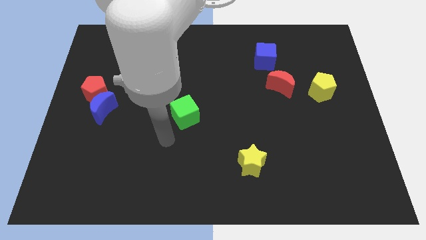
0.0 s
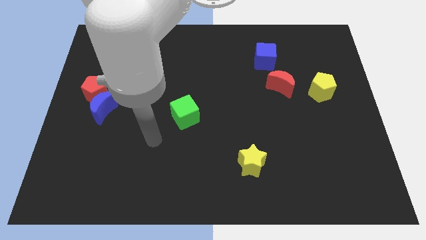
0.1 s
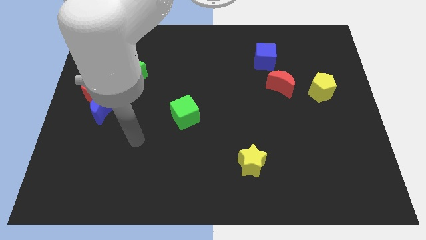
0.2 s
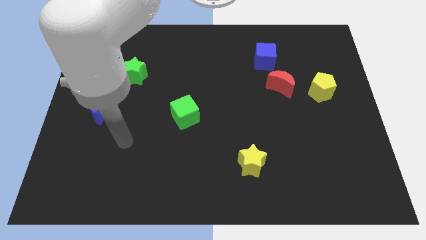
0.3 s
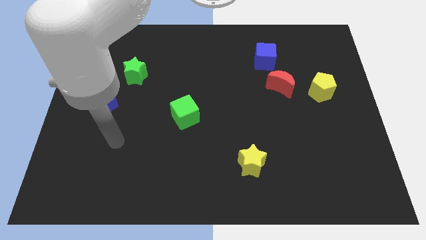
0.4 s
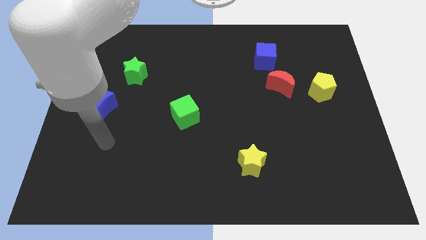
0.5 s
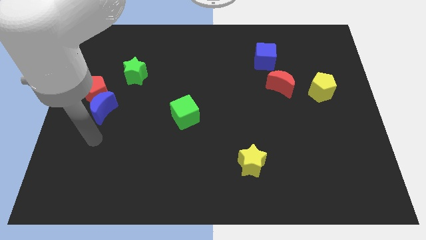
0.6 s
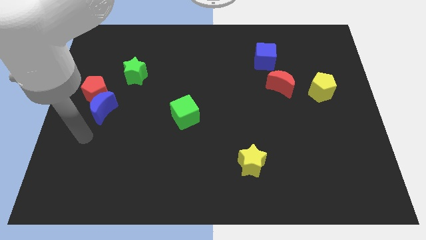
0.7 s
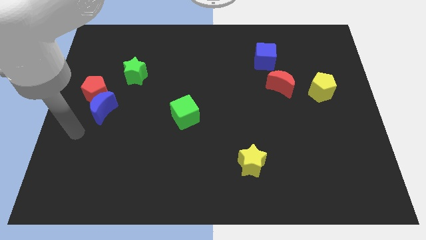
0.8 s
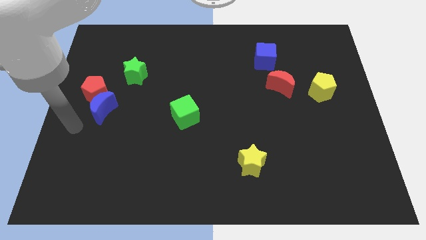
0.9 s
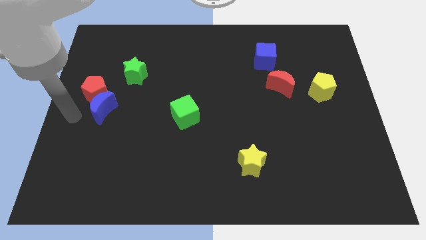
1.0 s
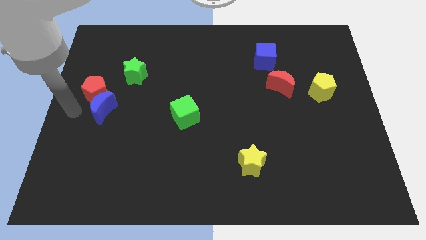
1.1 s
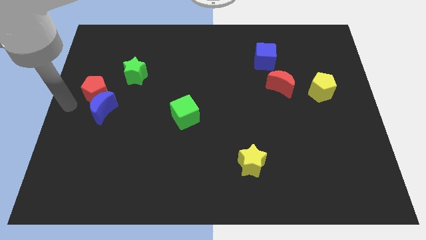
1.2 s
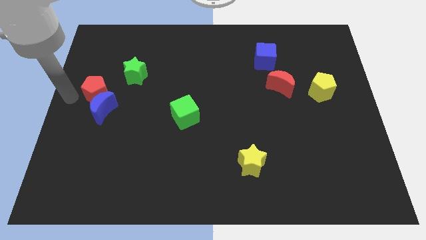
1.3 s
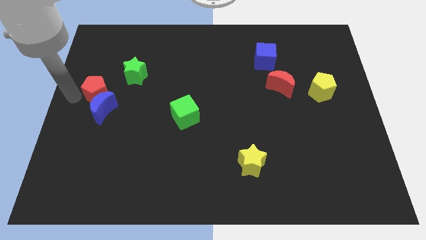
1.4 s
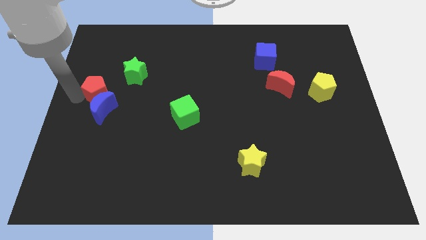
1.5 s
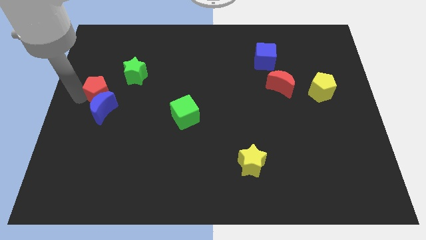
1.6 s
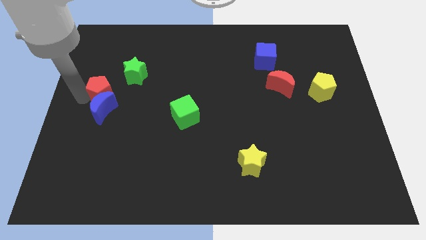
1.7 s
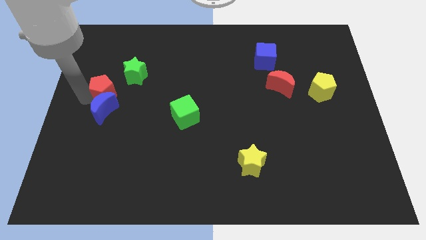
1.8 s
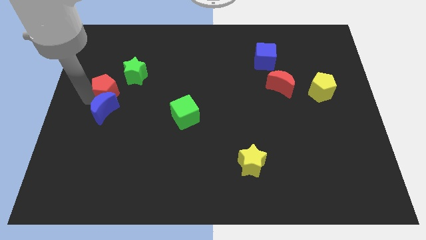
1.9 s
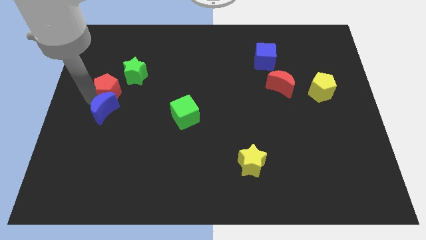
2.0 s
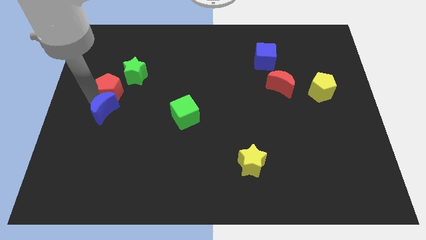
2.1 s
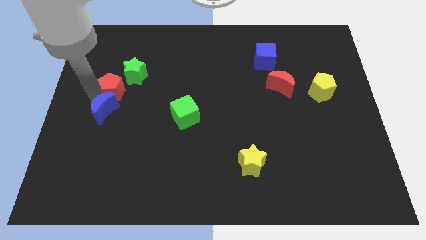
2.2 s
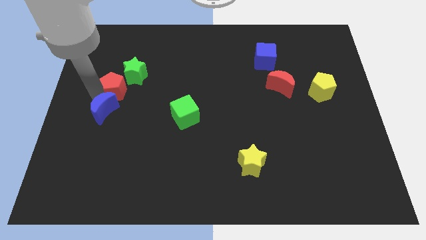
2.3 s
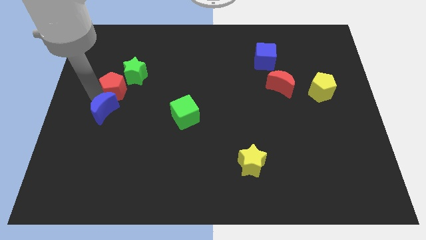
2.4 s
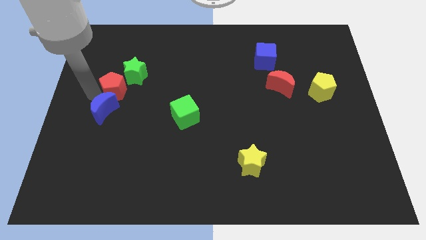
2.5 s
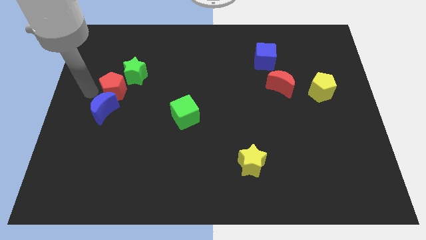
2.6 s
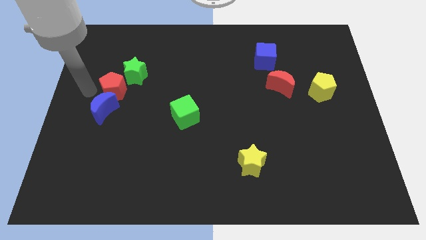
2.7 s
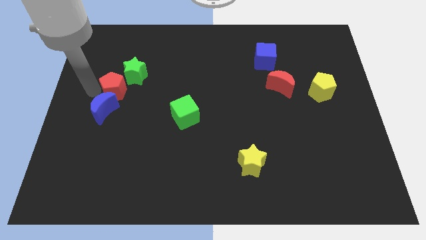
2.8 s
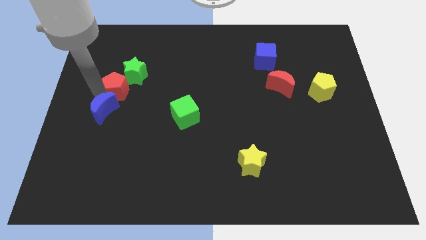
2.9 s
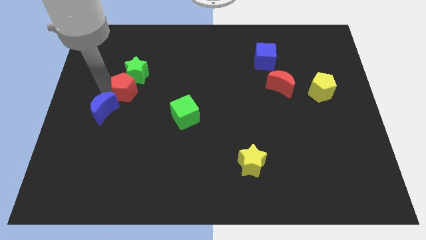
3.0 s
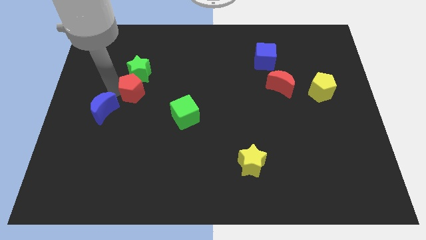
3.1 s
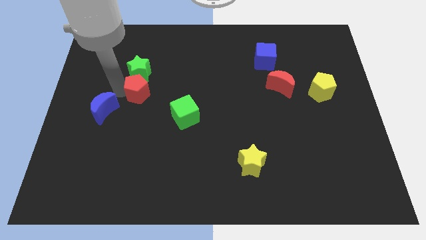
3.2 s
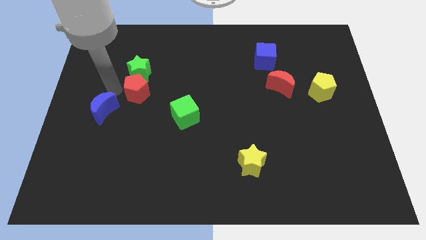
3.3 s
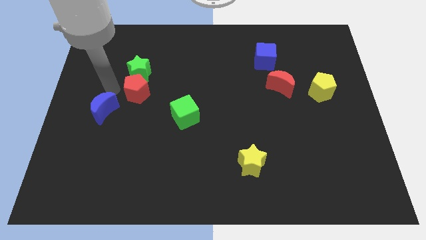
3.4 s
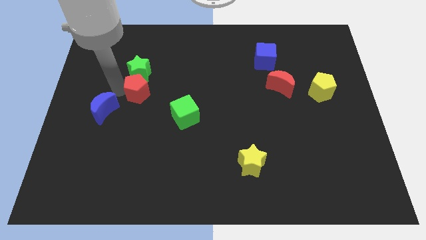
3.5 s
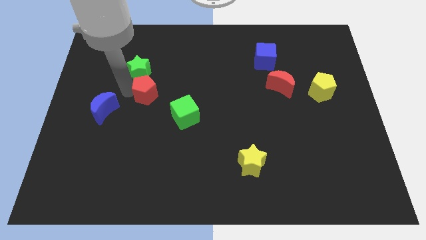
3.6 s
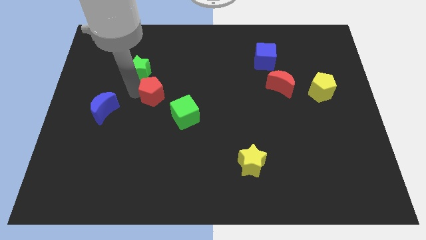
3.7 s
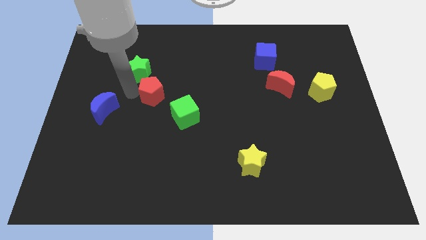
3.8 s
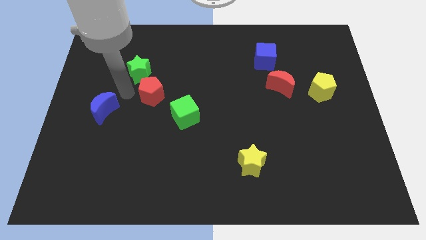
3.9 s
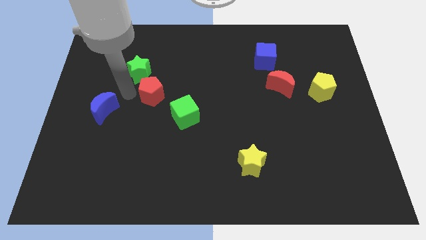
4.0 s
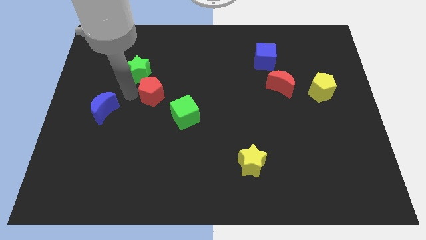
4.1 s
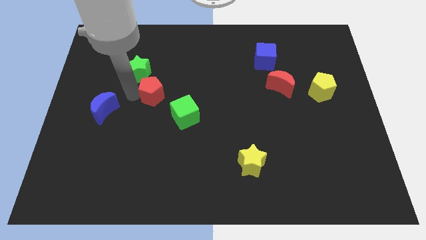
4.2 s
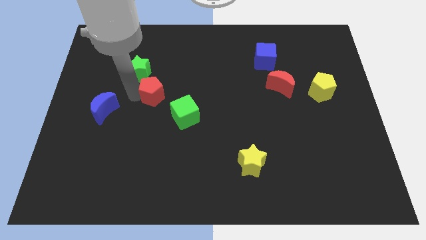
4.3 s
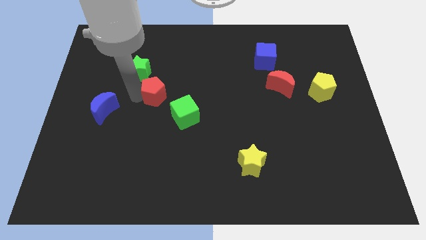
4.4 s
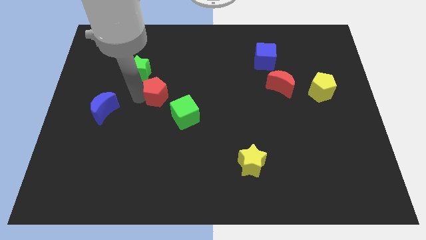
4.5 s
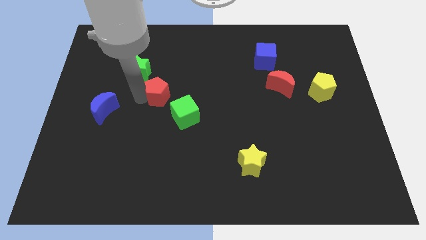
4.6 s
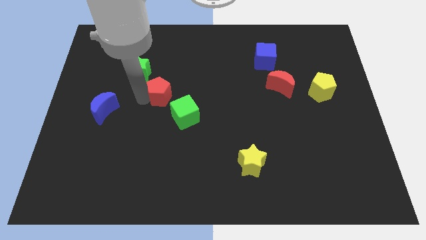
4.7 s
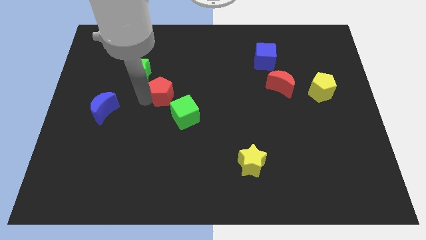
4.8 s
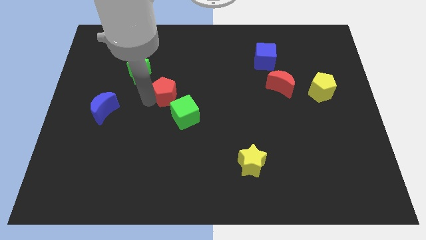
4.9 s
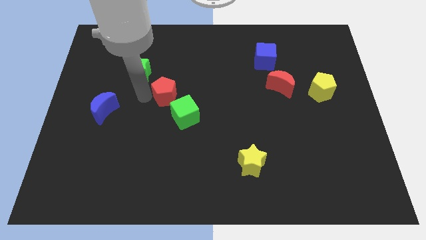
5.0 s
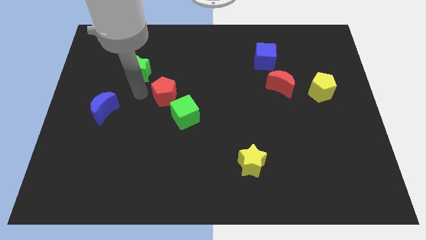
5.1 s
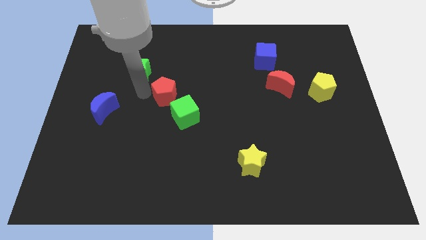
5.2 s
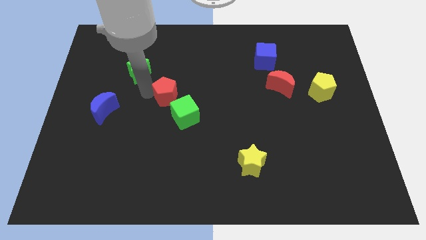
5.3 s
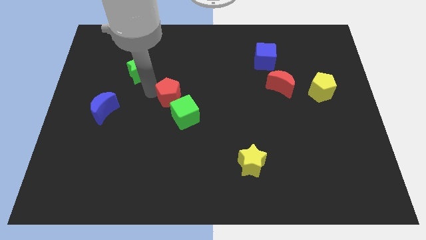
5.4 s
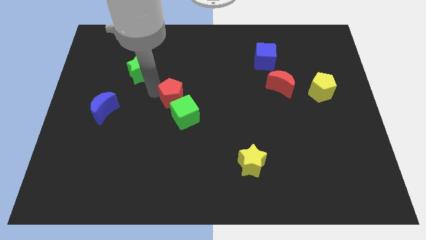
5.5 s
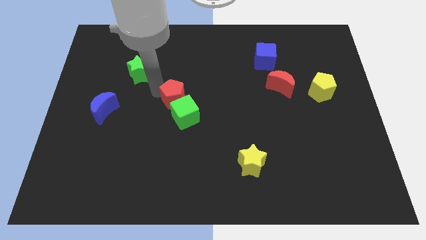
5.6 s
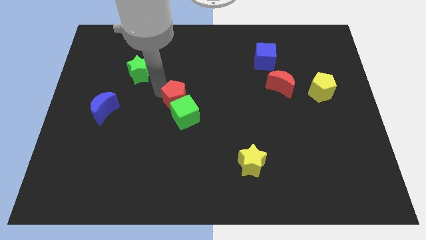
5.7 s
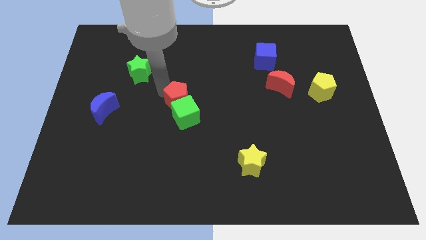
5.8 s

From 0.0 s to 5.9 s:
push the red pentagon right

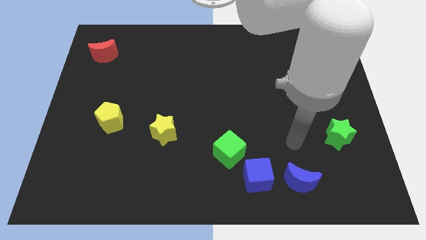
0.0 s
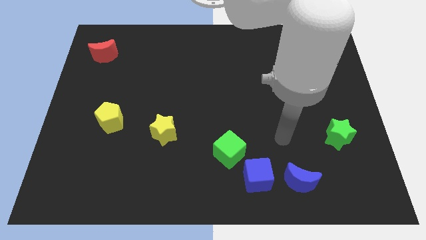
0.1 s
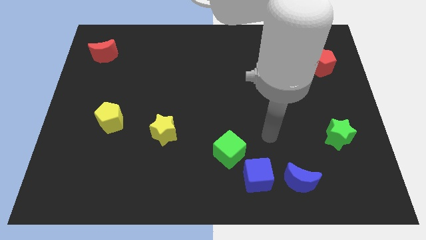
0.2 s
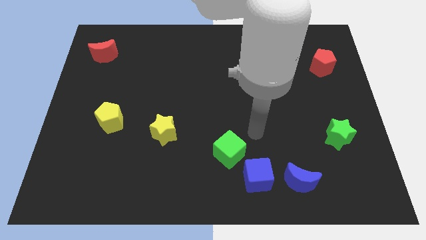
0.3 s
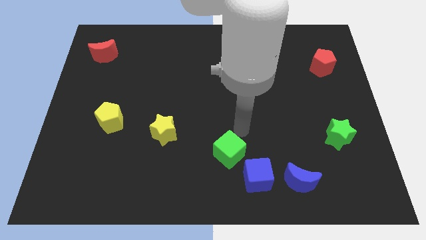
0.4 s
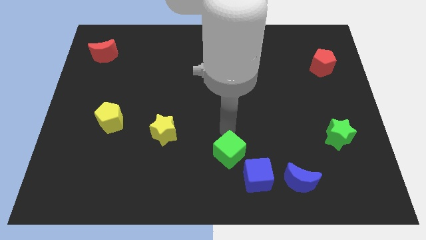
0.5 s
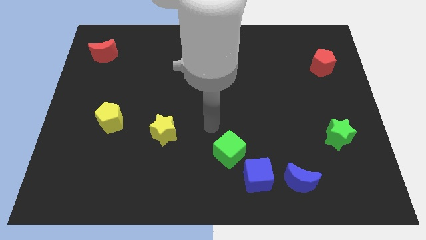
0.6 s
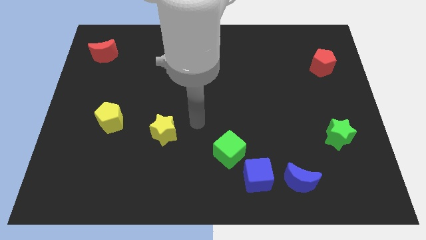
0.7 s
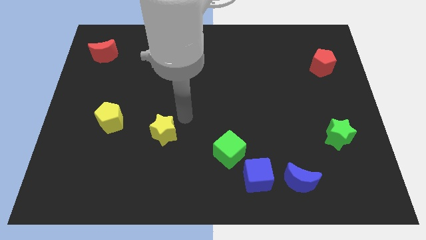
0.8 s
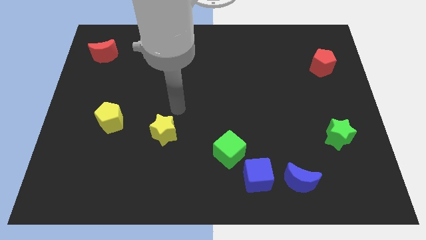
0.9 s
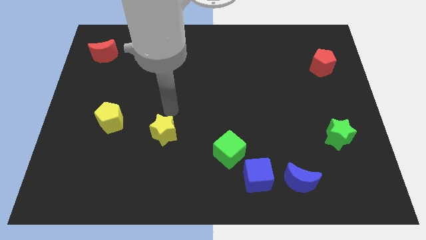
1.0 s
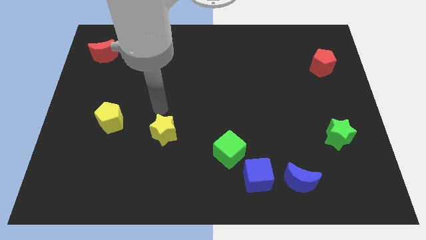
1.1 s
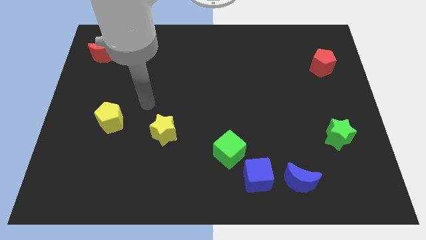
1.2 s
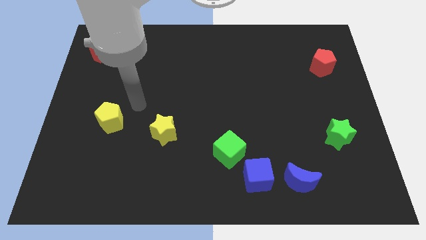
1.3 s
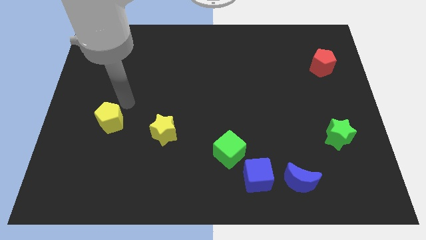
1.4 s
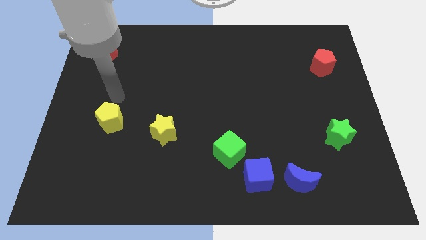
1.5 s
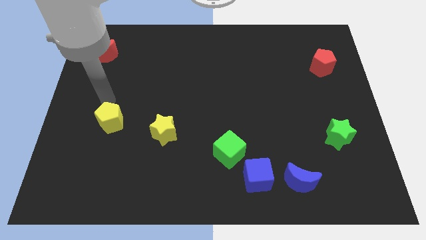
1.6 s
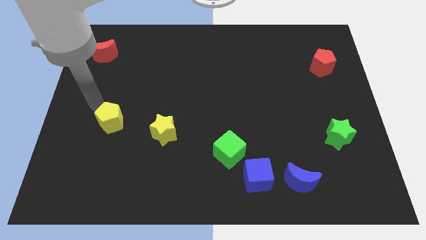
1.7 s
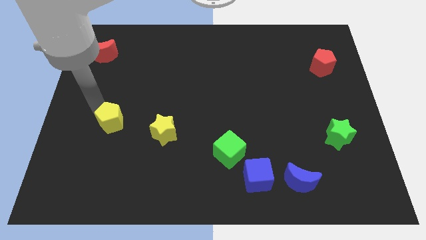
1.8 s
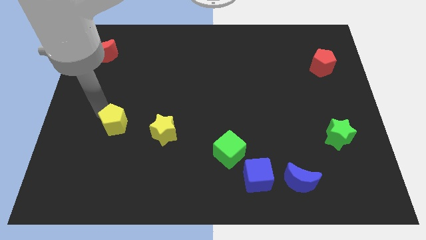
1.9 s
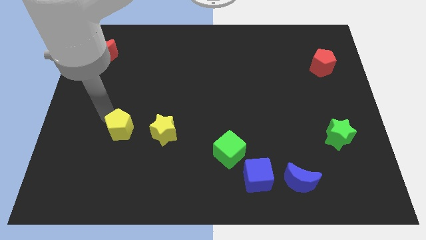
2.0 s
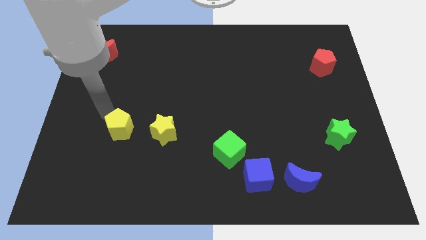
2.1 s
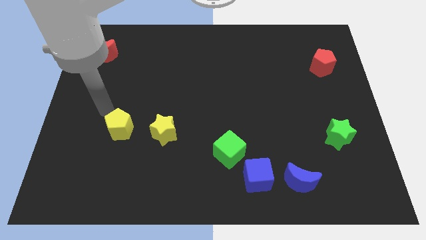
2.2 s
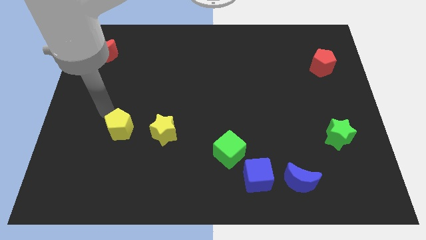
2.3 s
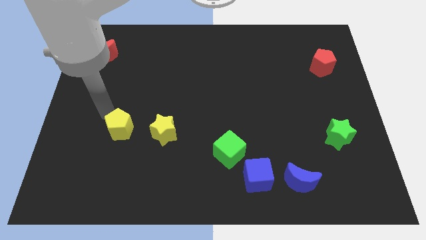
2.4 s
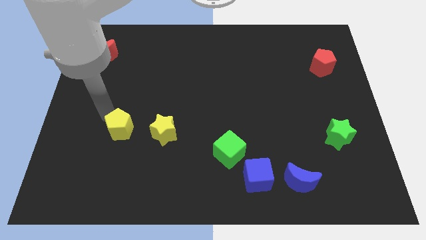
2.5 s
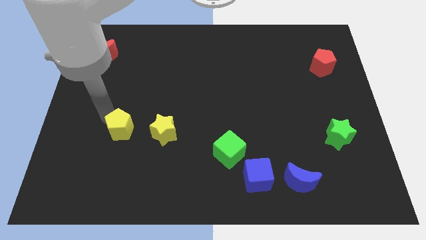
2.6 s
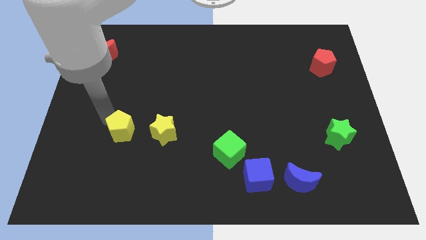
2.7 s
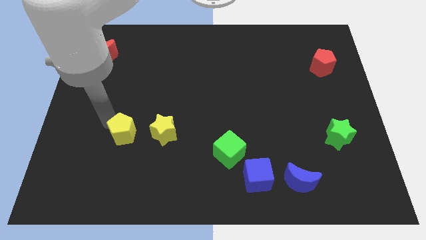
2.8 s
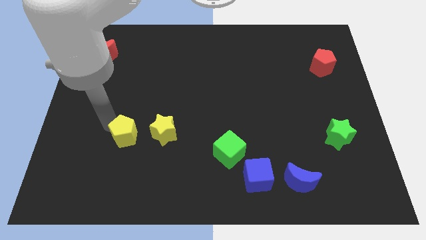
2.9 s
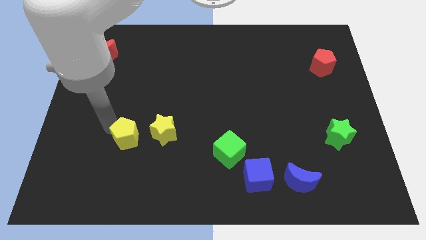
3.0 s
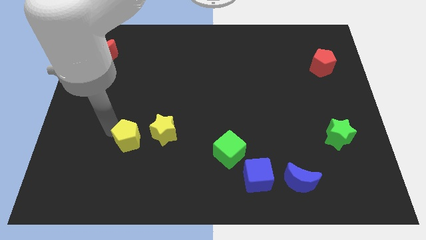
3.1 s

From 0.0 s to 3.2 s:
slightly push the yellow pentagon down and right diagonally
